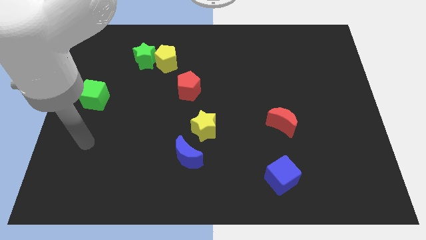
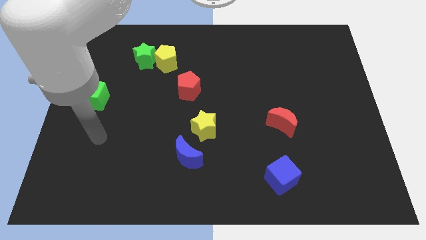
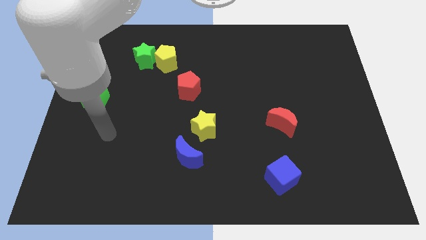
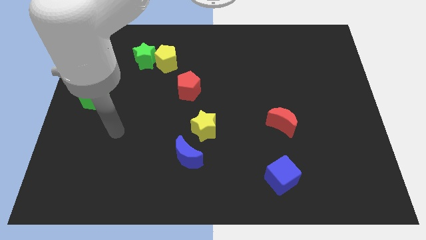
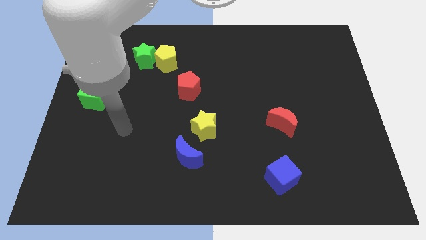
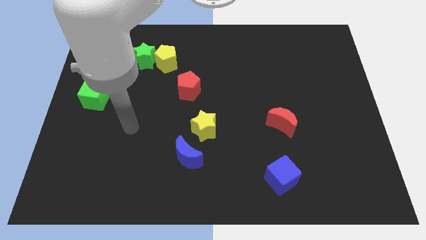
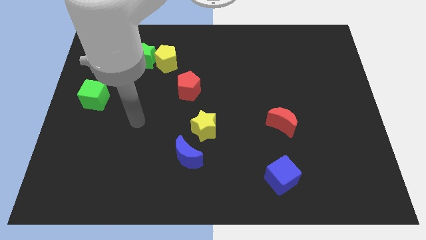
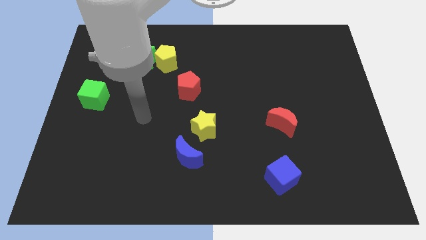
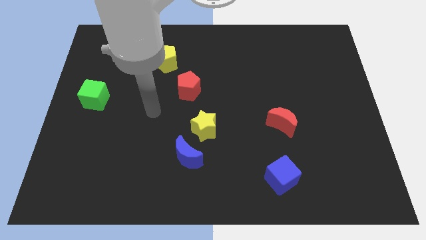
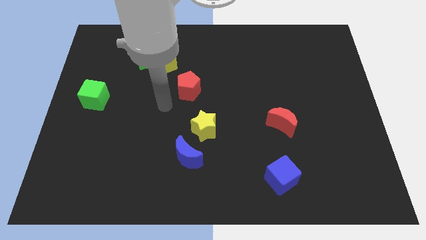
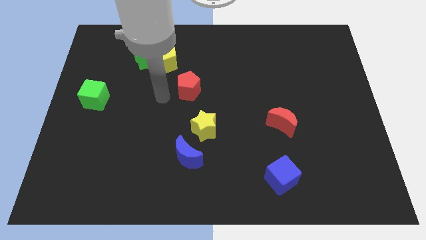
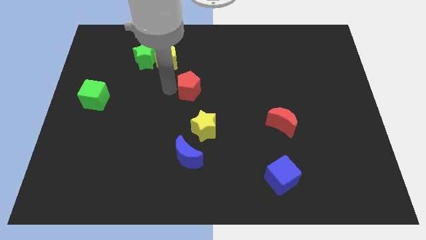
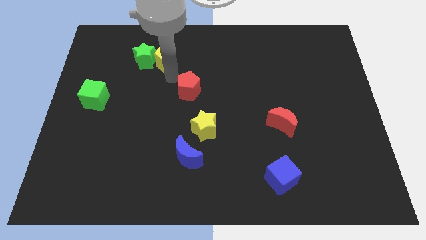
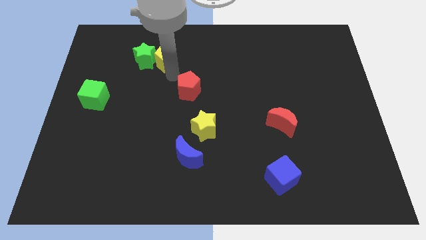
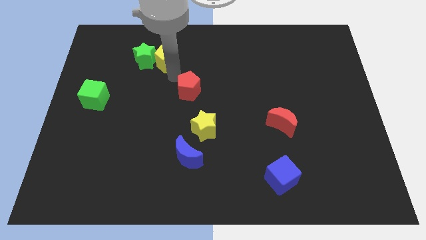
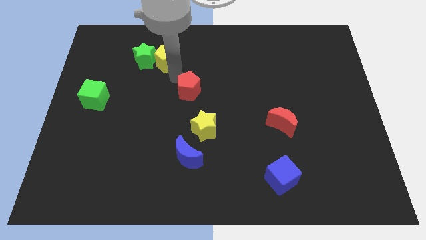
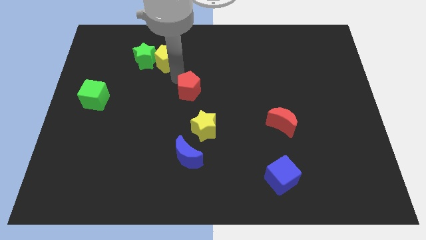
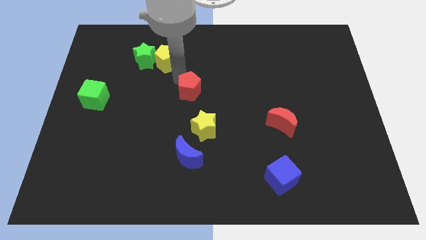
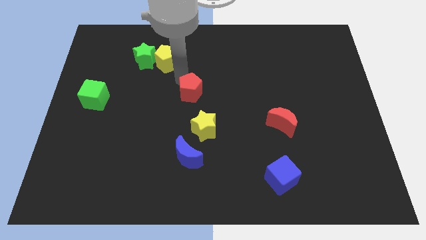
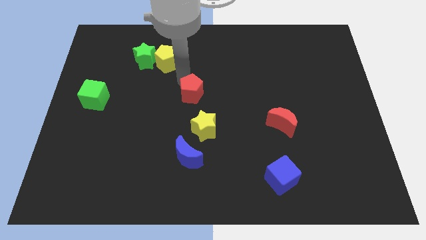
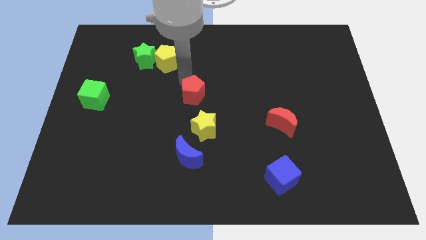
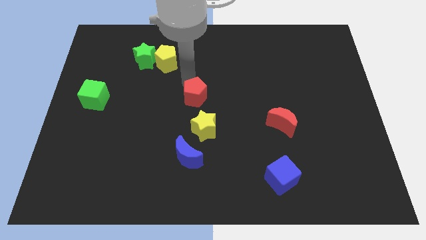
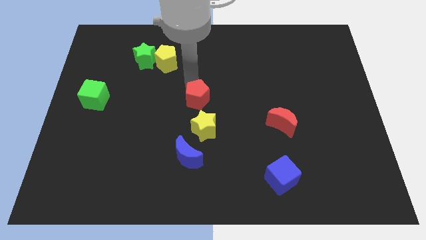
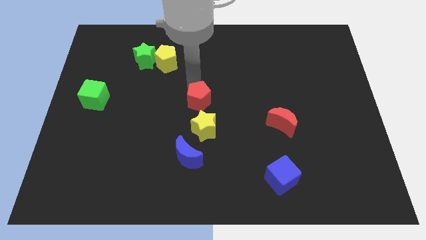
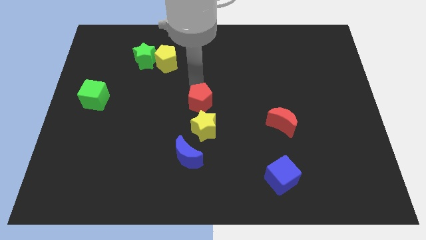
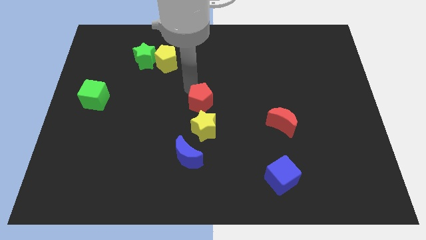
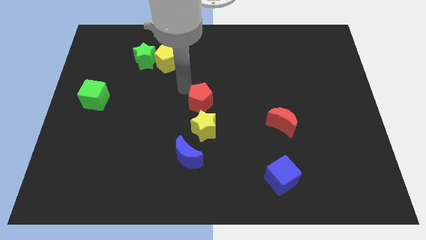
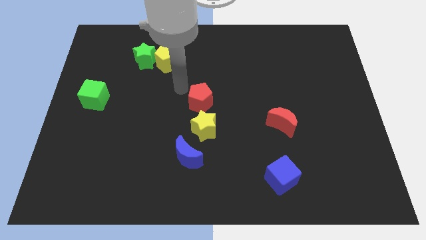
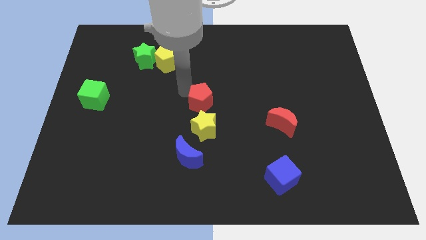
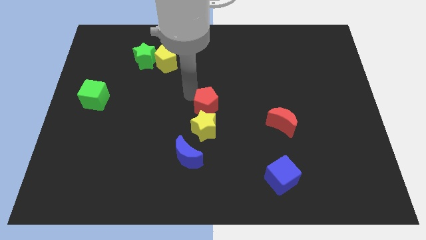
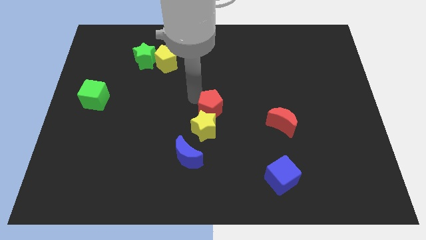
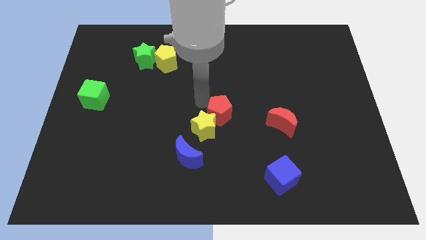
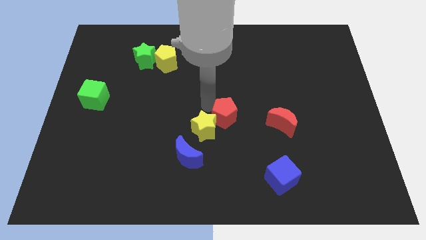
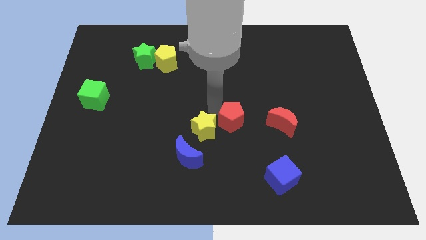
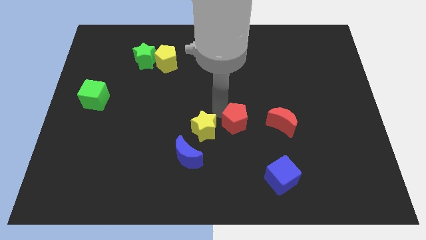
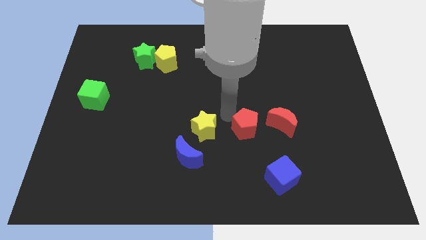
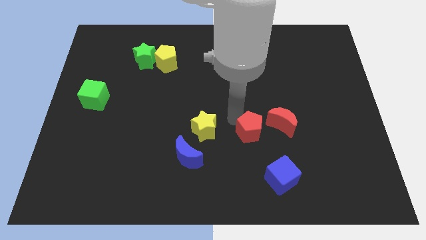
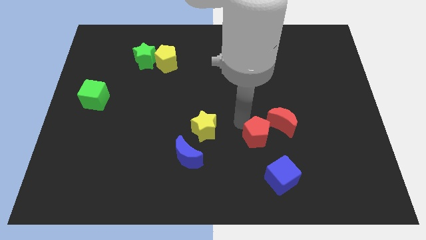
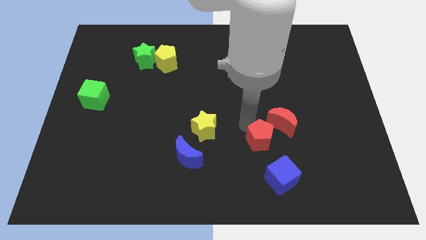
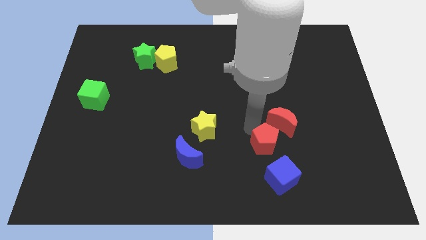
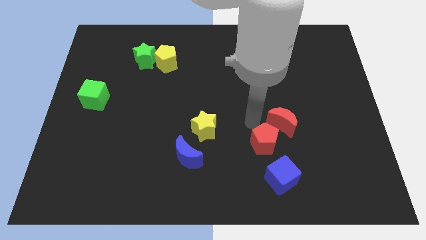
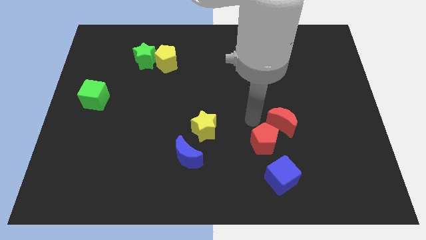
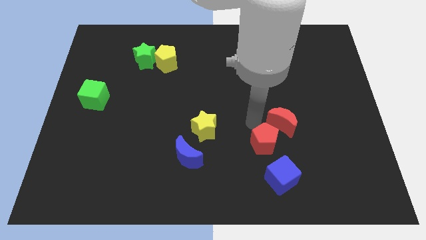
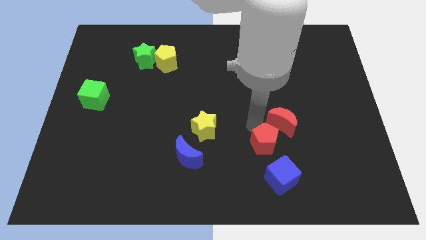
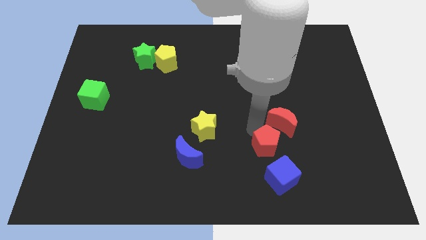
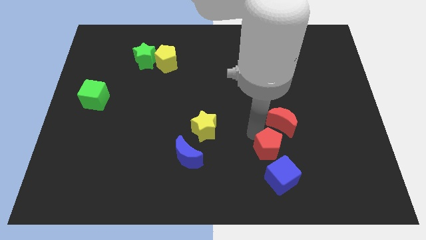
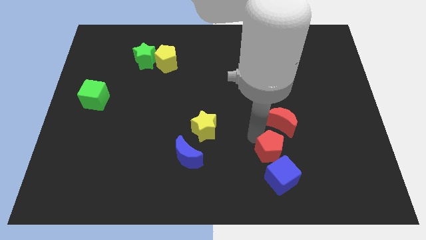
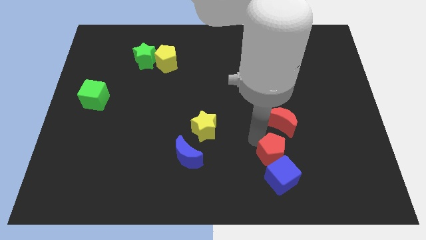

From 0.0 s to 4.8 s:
slide the red pentagon to the blue cube

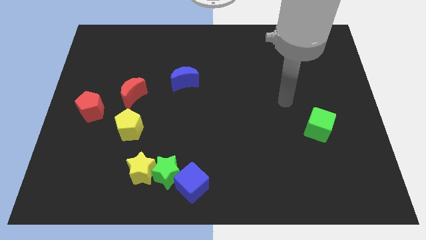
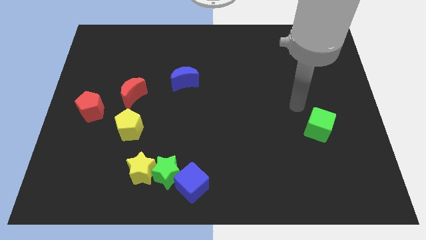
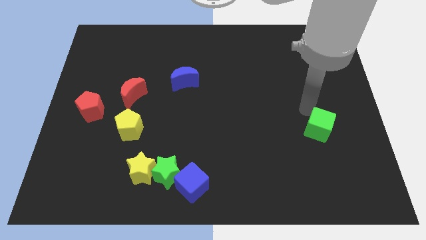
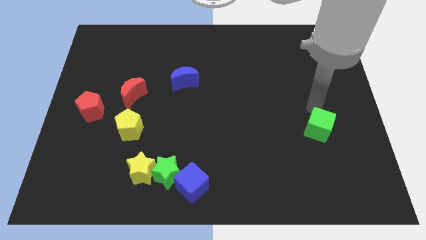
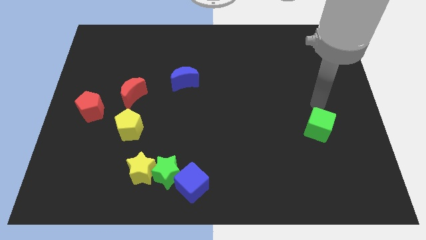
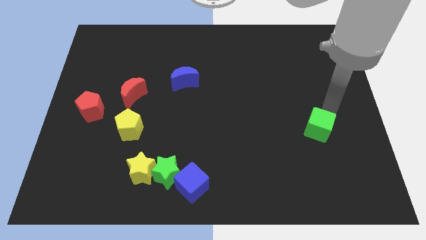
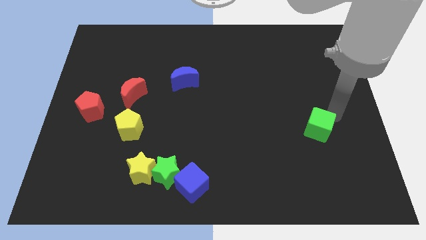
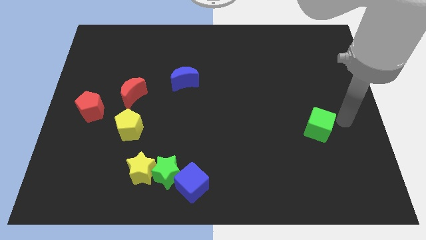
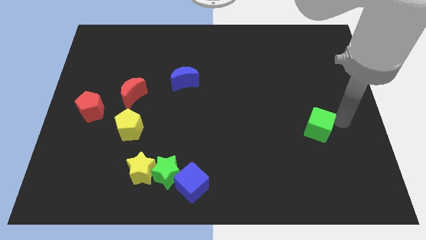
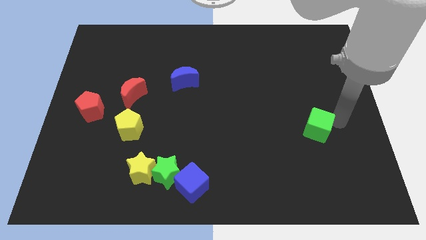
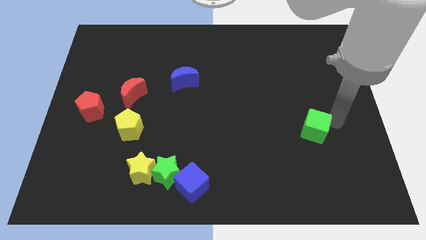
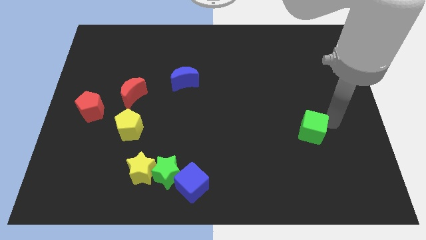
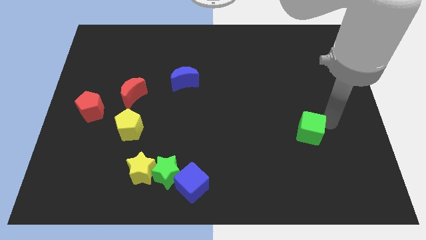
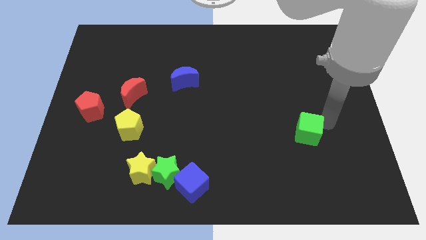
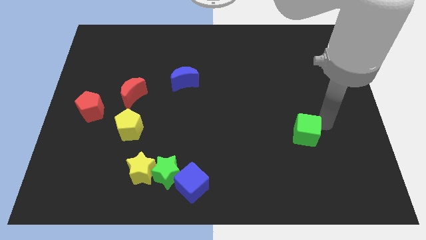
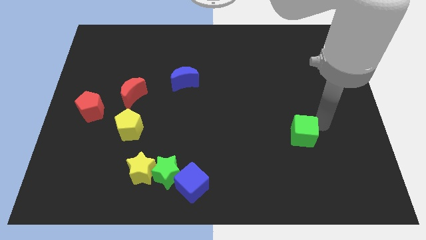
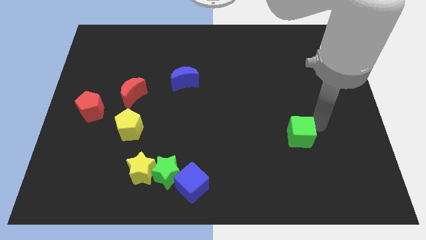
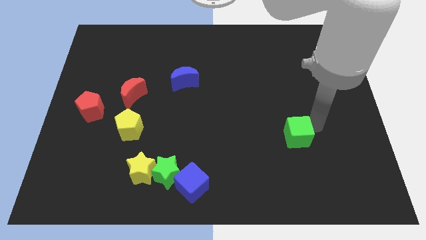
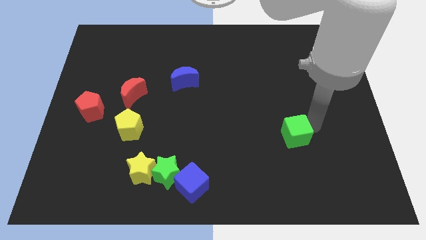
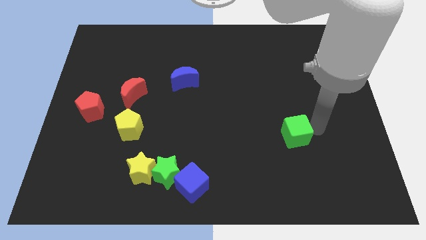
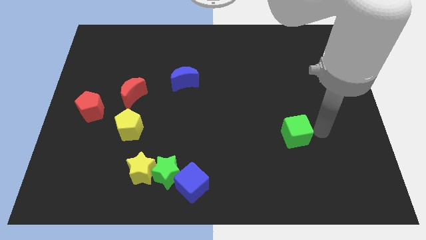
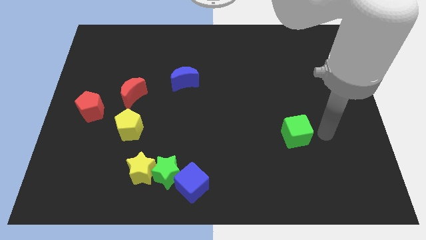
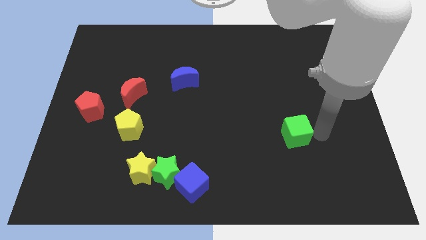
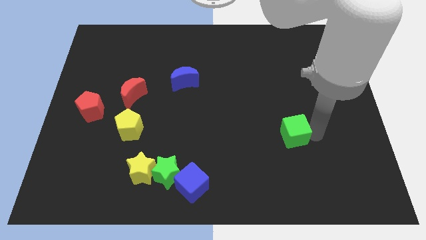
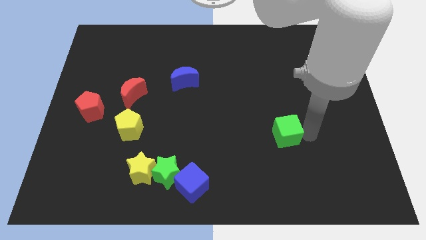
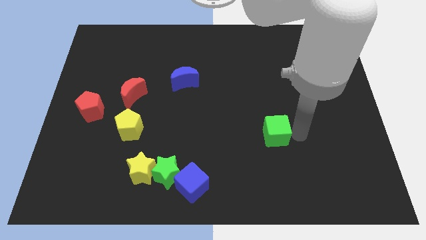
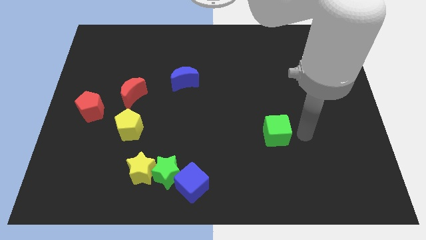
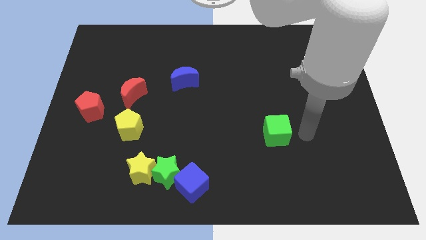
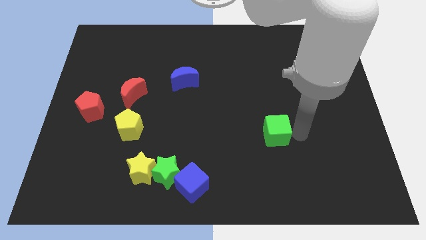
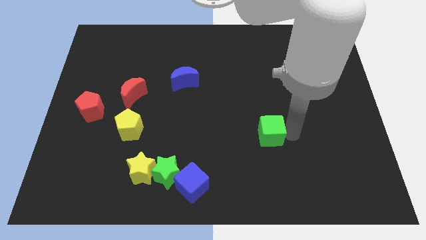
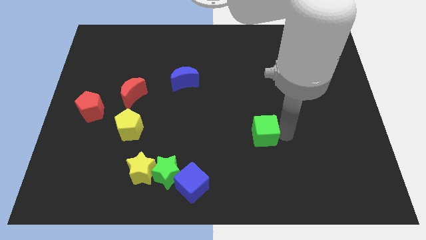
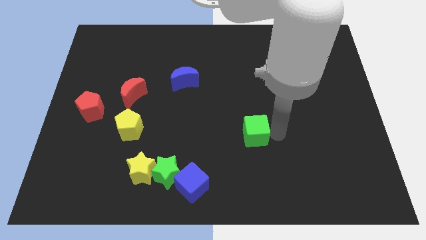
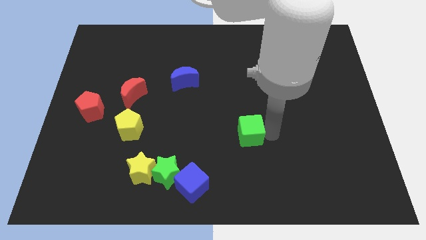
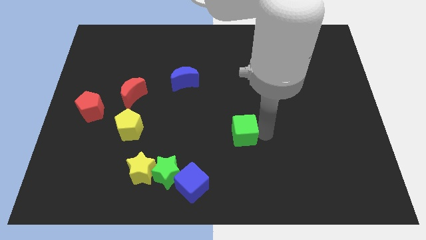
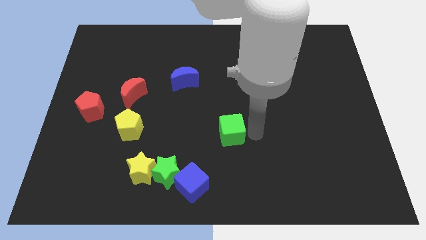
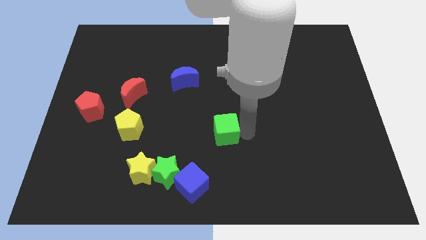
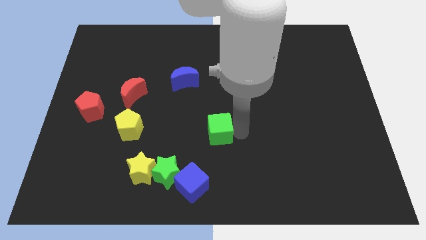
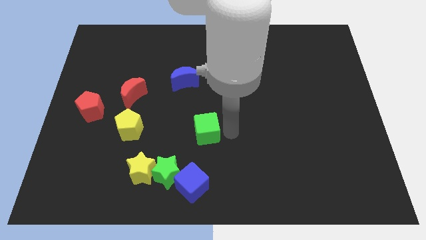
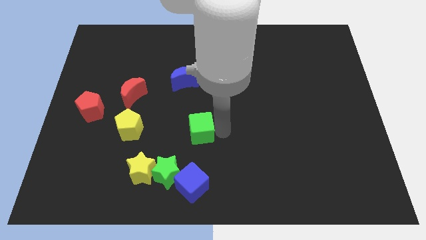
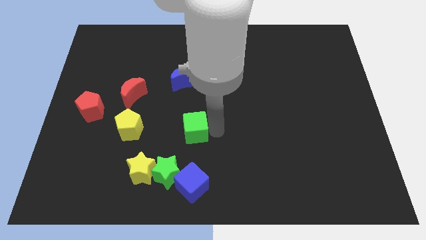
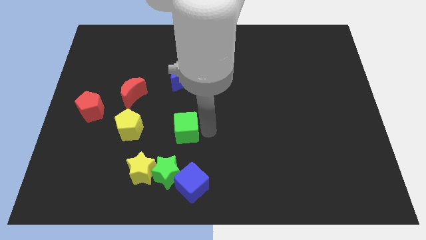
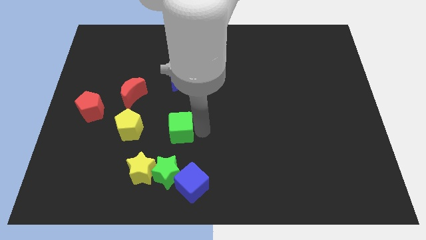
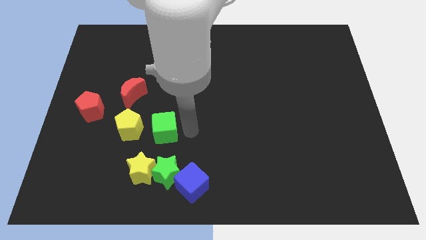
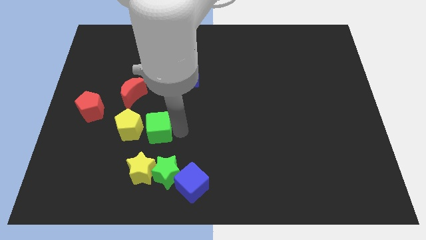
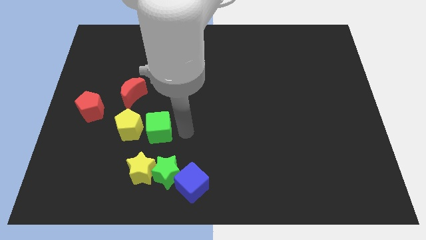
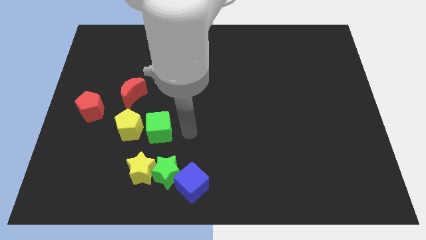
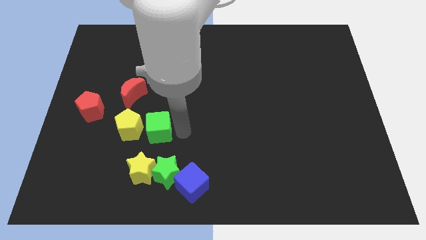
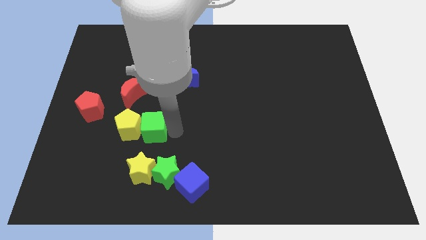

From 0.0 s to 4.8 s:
put the green cube to the yellow pentagon
